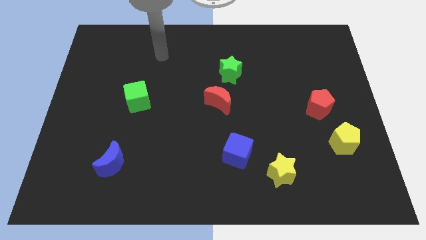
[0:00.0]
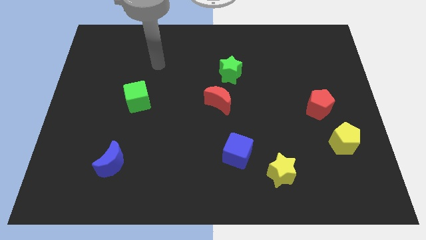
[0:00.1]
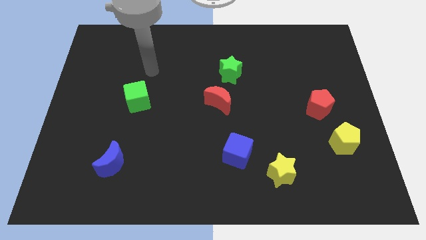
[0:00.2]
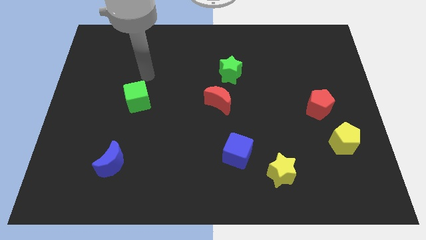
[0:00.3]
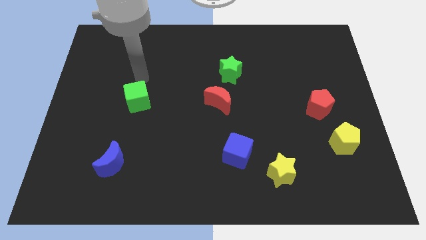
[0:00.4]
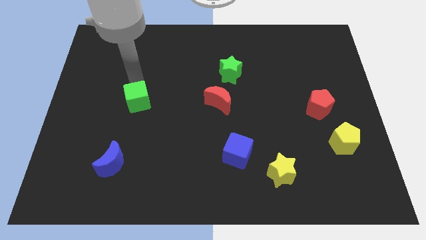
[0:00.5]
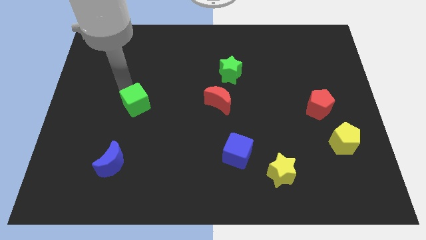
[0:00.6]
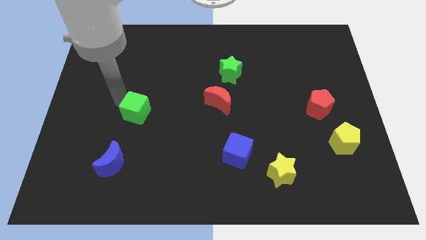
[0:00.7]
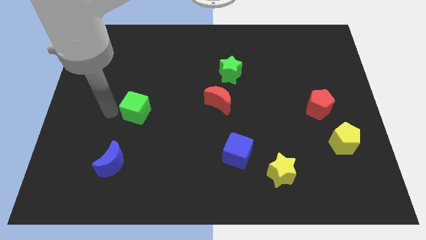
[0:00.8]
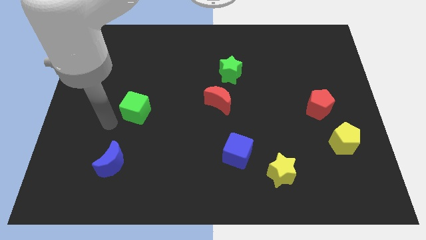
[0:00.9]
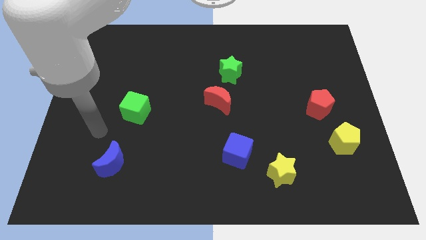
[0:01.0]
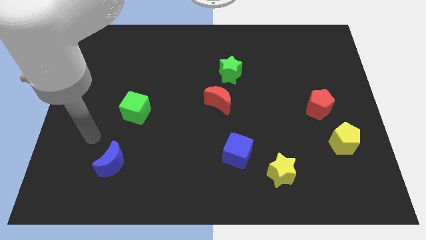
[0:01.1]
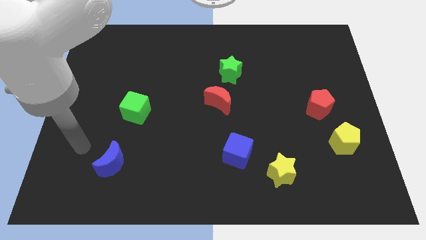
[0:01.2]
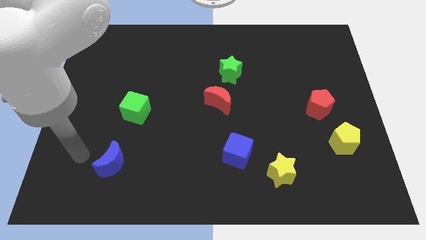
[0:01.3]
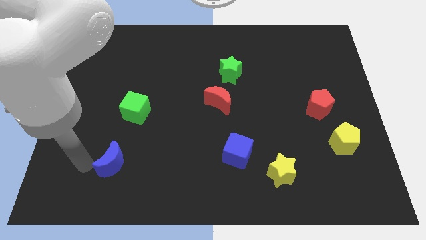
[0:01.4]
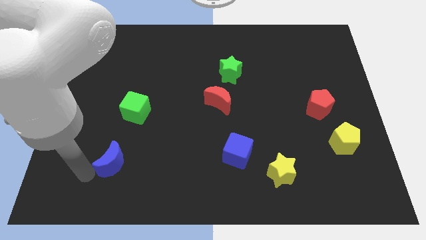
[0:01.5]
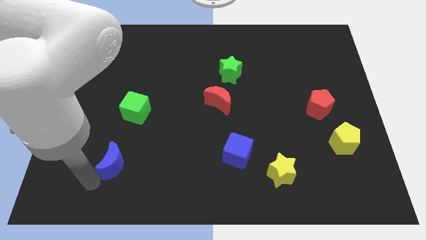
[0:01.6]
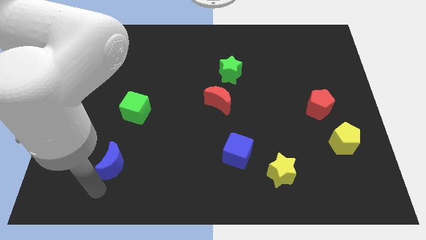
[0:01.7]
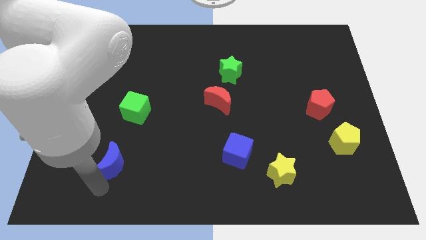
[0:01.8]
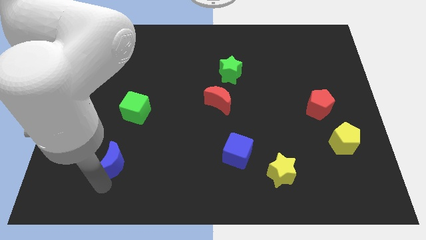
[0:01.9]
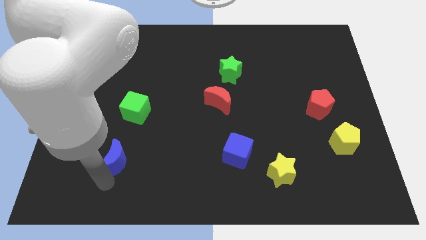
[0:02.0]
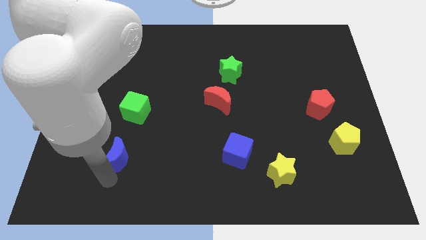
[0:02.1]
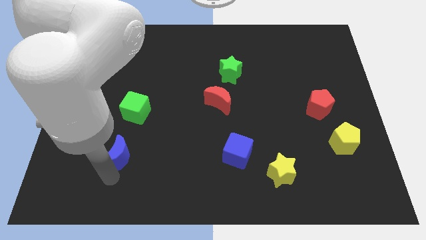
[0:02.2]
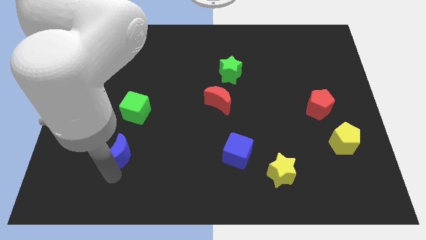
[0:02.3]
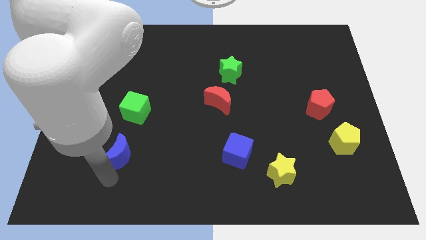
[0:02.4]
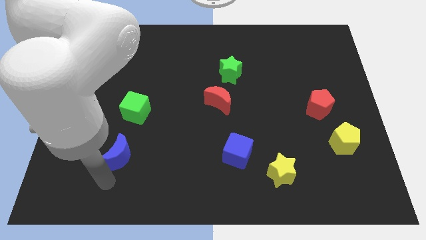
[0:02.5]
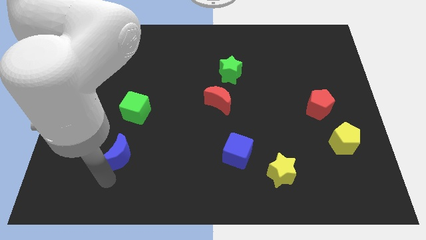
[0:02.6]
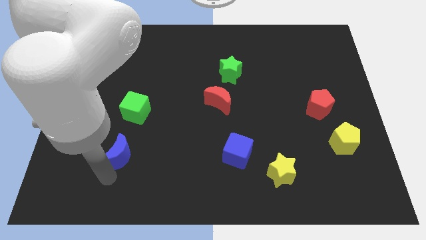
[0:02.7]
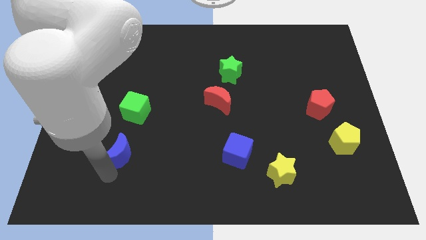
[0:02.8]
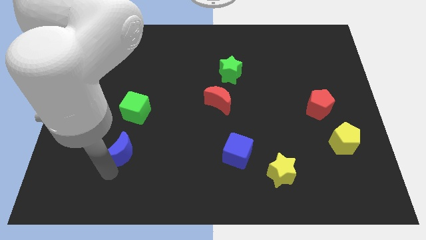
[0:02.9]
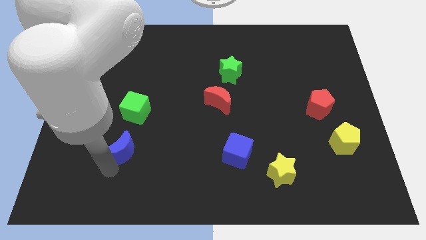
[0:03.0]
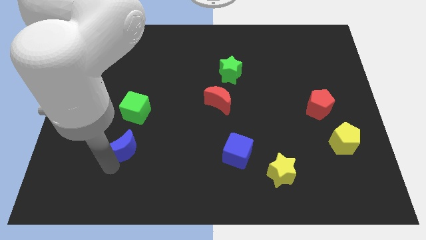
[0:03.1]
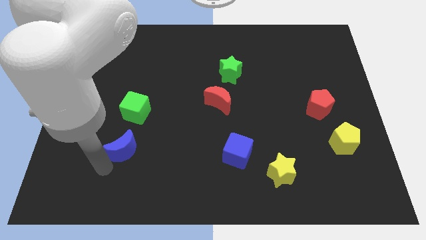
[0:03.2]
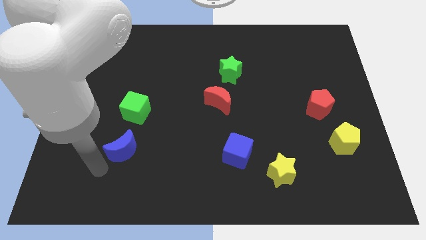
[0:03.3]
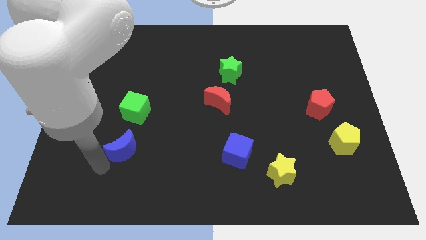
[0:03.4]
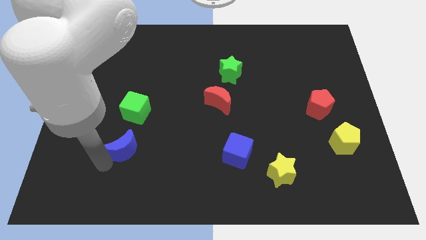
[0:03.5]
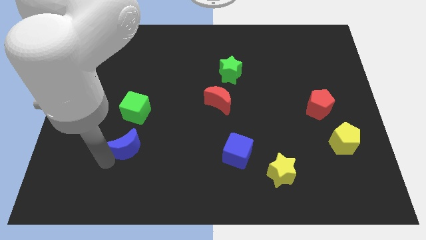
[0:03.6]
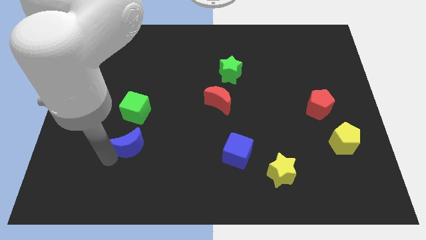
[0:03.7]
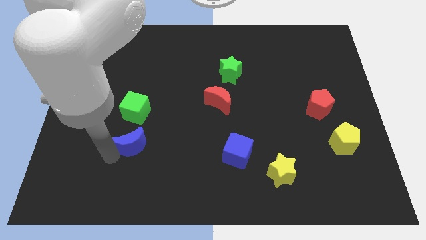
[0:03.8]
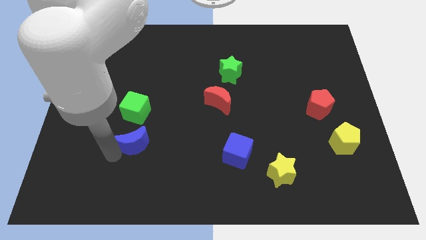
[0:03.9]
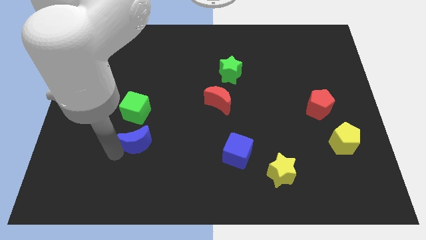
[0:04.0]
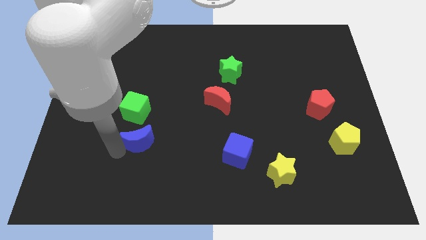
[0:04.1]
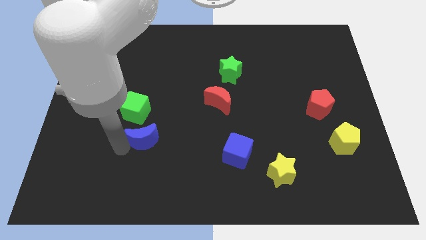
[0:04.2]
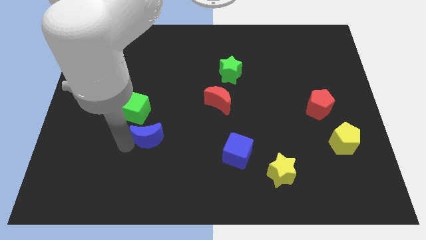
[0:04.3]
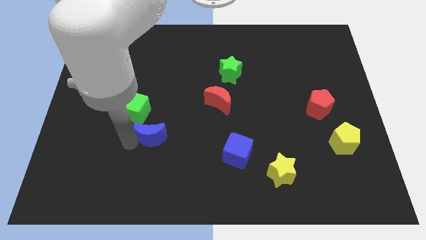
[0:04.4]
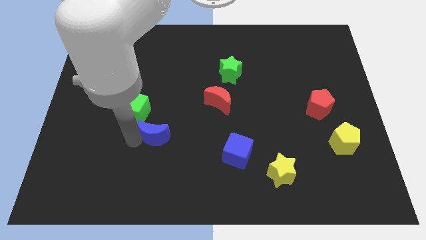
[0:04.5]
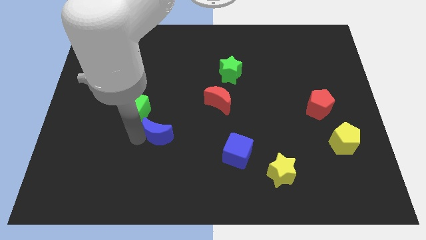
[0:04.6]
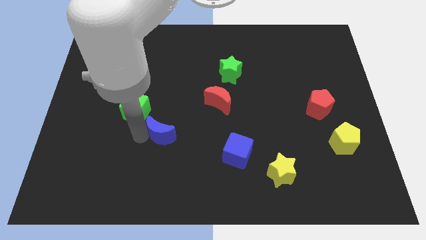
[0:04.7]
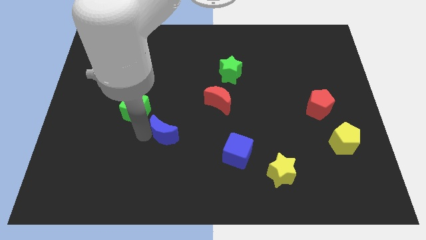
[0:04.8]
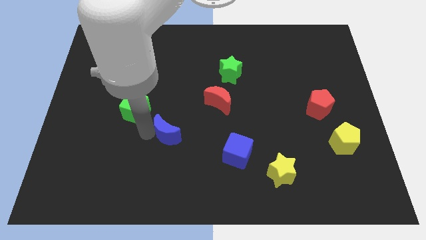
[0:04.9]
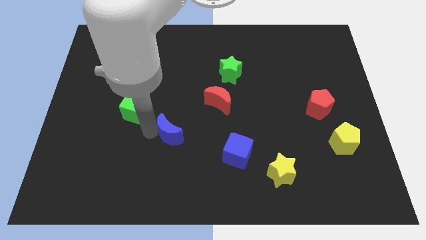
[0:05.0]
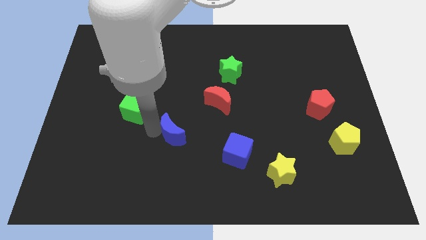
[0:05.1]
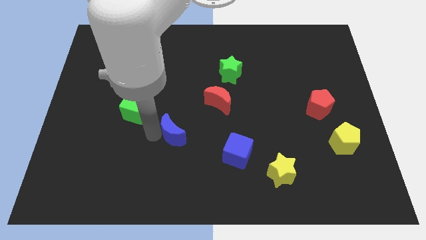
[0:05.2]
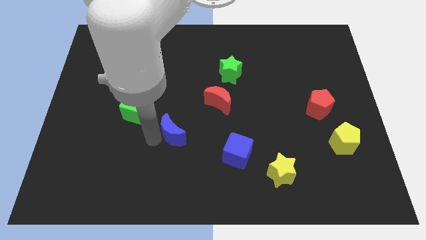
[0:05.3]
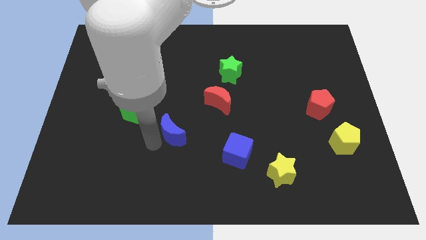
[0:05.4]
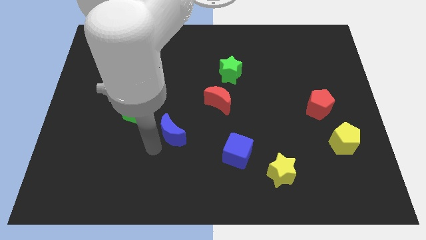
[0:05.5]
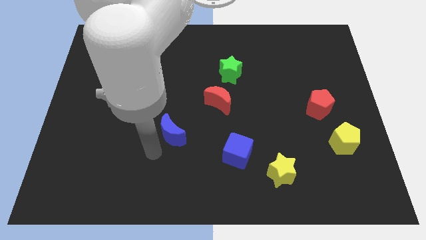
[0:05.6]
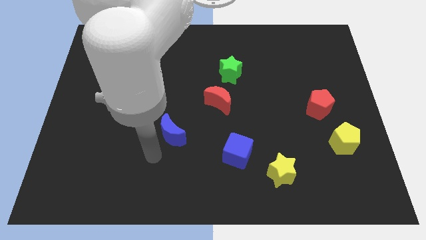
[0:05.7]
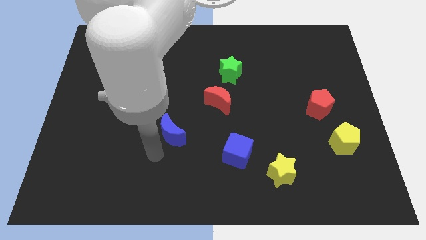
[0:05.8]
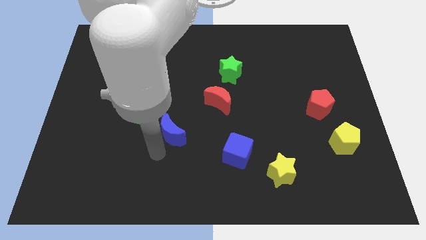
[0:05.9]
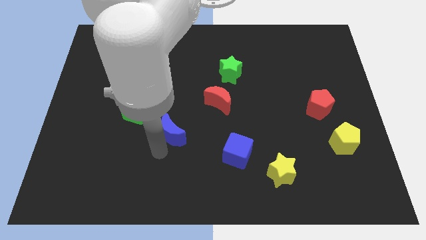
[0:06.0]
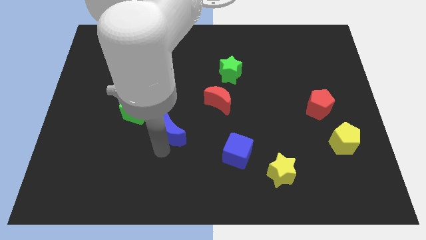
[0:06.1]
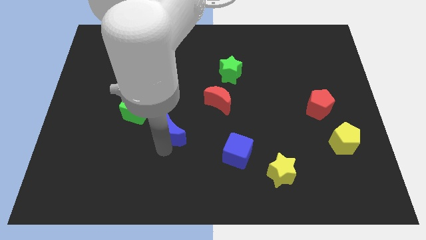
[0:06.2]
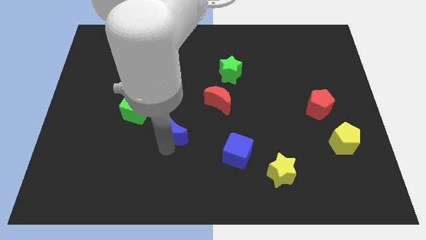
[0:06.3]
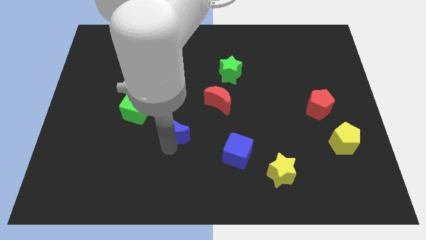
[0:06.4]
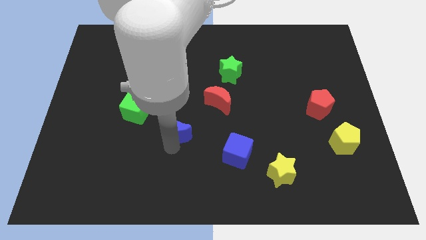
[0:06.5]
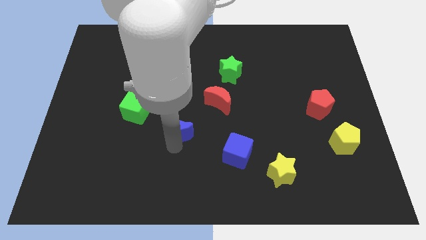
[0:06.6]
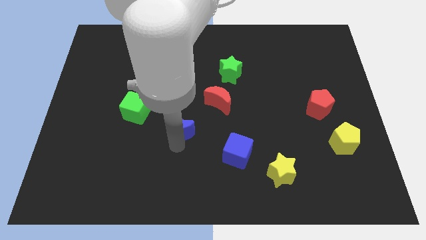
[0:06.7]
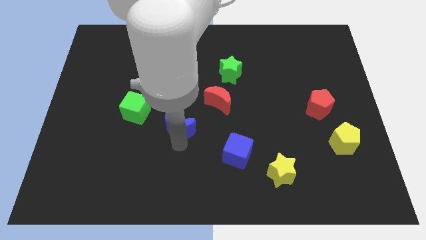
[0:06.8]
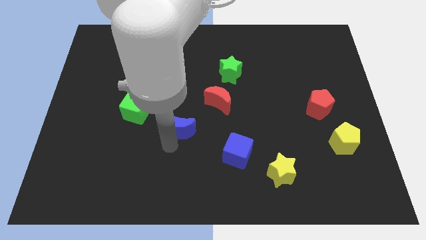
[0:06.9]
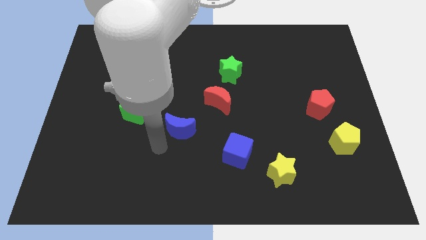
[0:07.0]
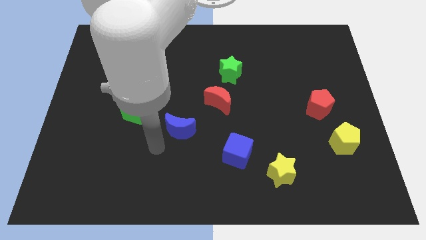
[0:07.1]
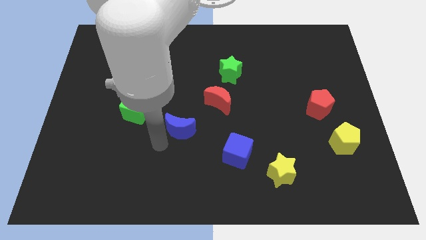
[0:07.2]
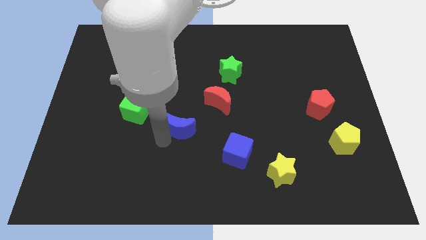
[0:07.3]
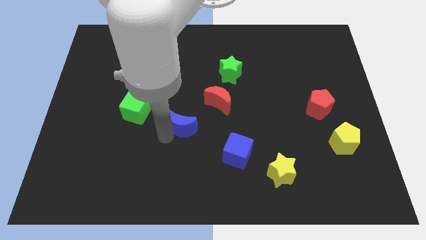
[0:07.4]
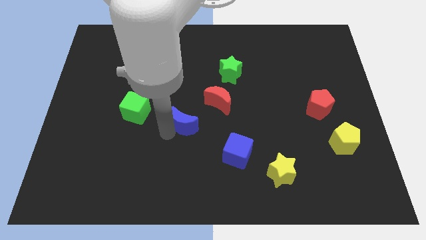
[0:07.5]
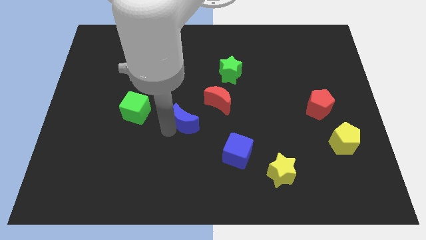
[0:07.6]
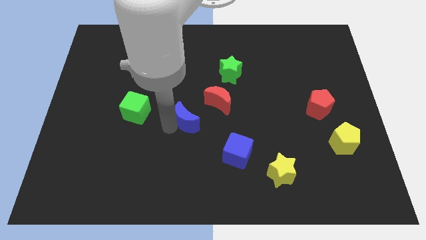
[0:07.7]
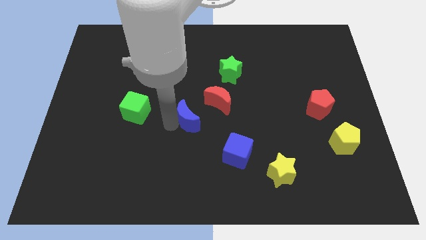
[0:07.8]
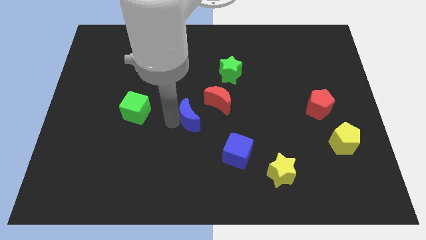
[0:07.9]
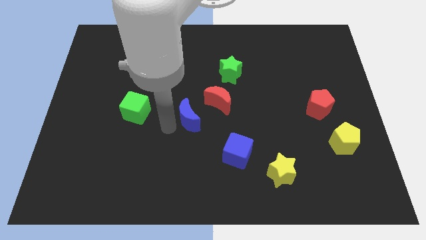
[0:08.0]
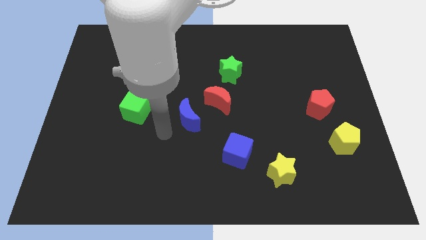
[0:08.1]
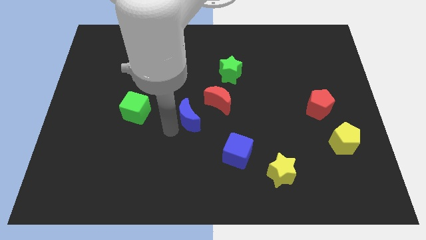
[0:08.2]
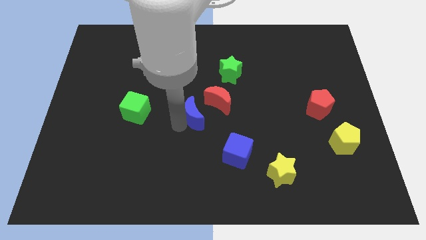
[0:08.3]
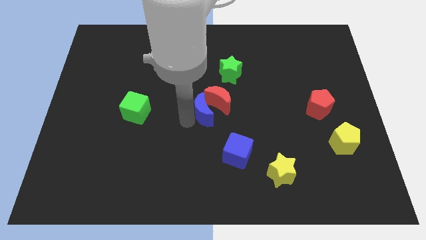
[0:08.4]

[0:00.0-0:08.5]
move the blue moon towards the red moon
